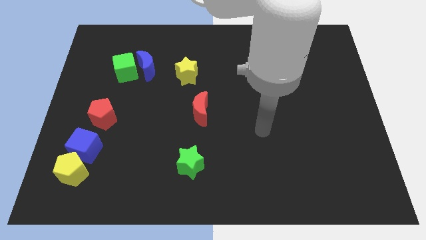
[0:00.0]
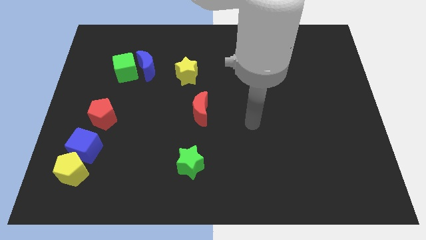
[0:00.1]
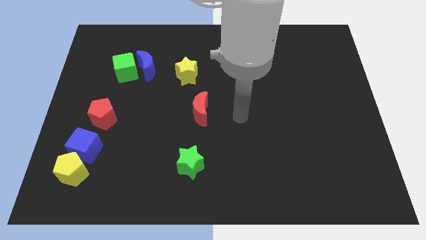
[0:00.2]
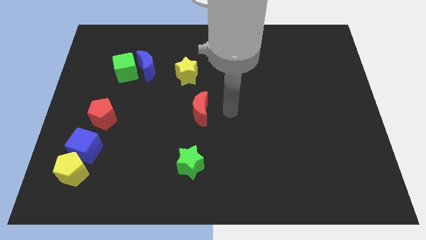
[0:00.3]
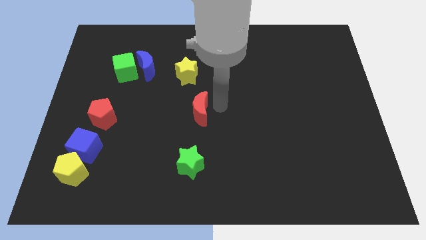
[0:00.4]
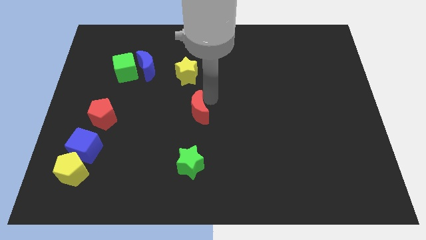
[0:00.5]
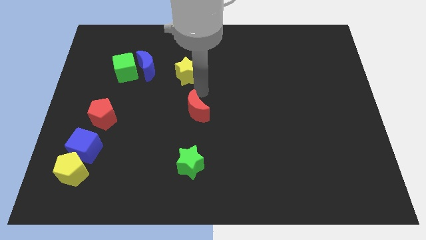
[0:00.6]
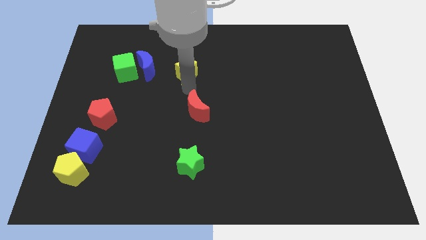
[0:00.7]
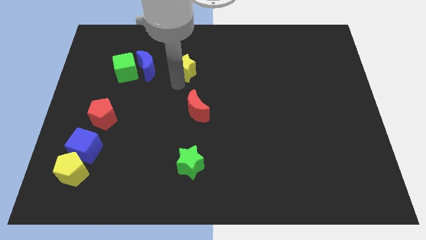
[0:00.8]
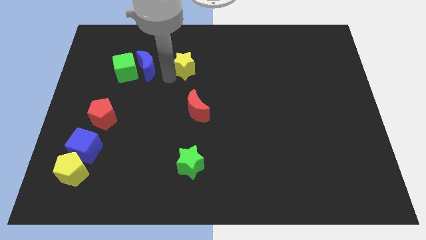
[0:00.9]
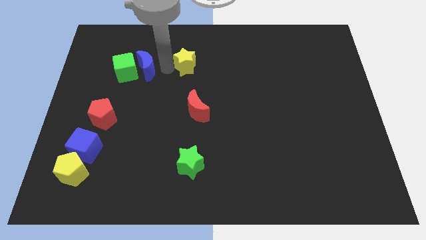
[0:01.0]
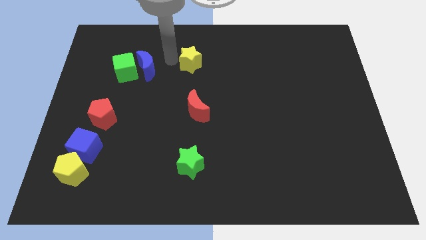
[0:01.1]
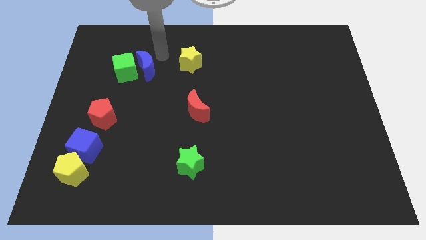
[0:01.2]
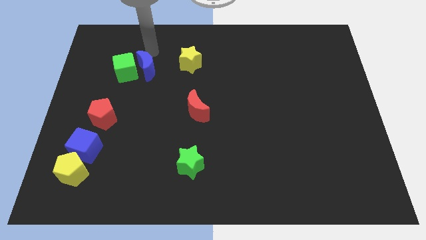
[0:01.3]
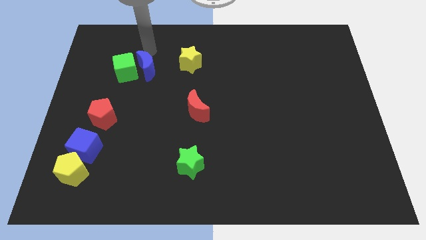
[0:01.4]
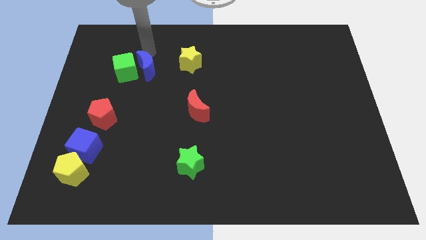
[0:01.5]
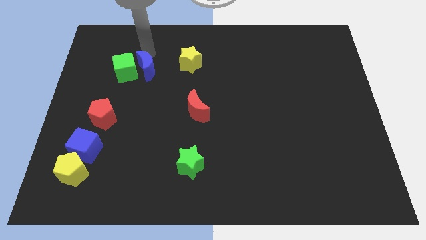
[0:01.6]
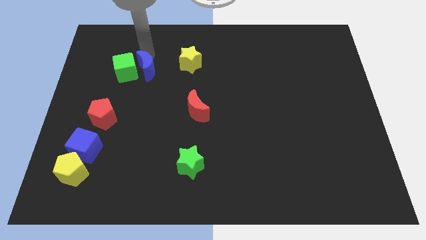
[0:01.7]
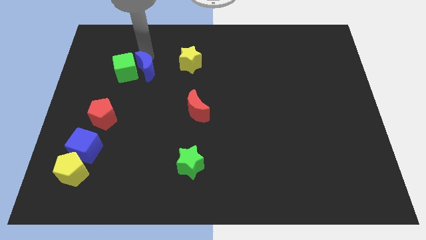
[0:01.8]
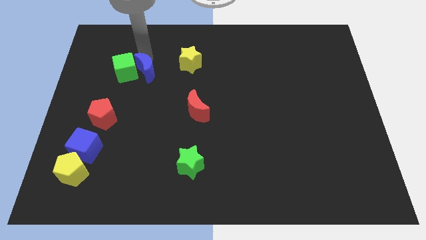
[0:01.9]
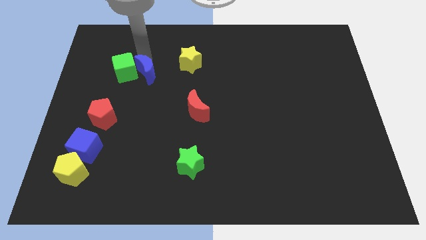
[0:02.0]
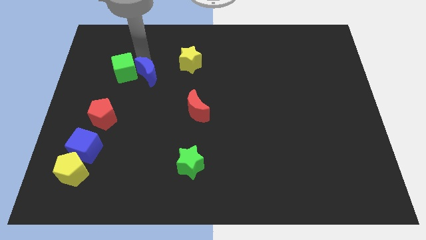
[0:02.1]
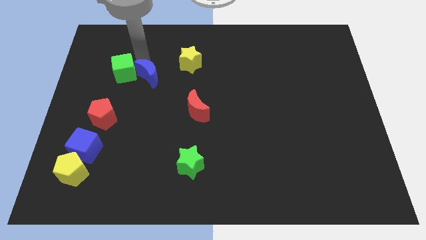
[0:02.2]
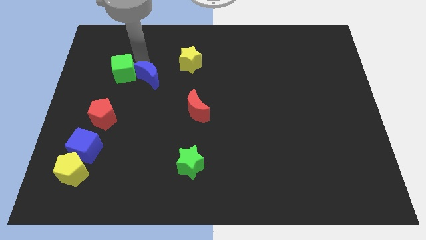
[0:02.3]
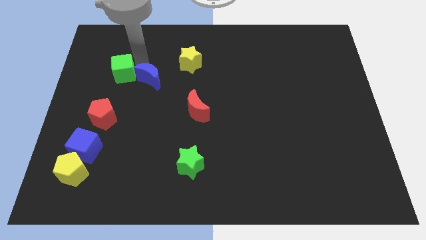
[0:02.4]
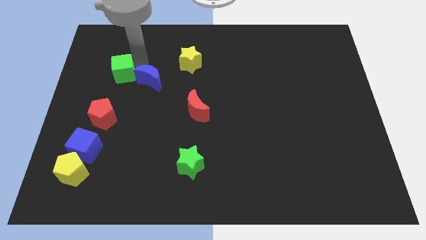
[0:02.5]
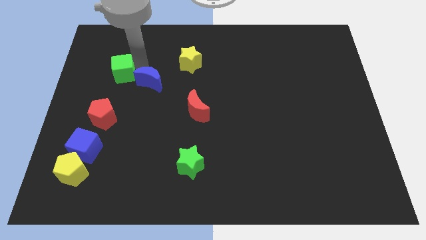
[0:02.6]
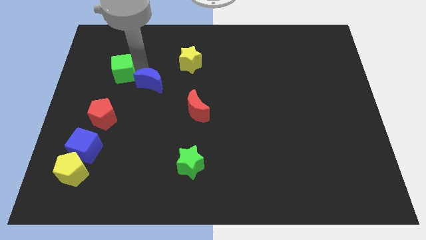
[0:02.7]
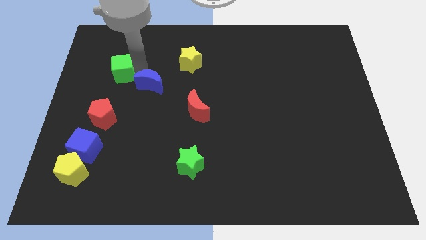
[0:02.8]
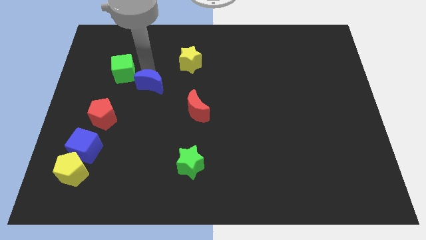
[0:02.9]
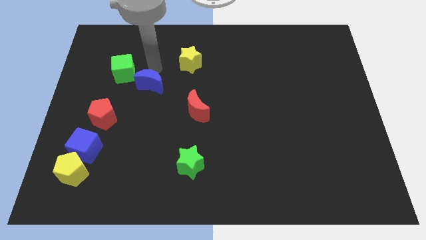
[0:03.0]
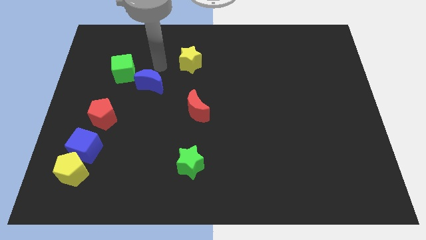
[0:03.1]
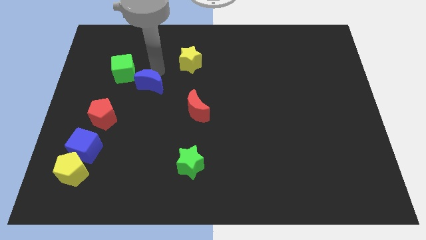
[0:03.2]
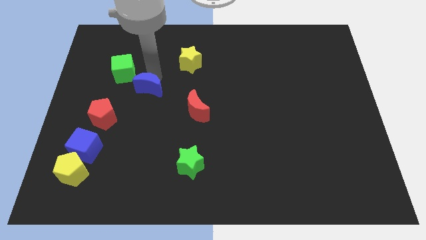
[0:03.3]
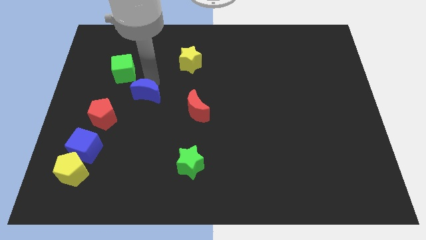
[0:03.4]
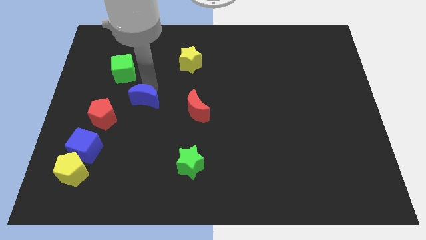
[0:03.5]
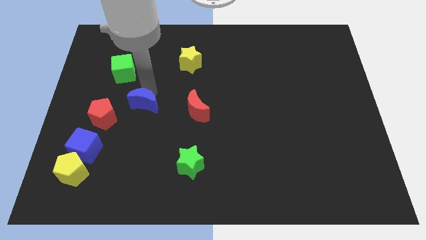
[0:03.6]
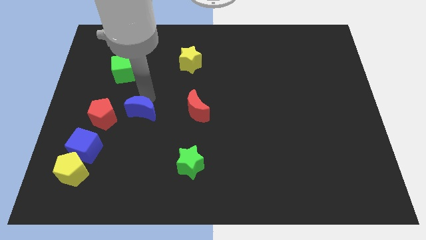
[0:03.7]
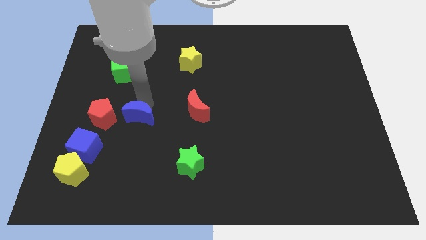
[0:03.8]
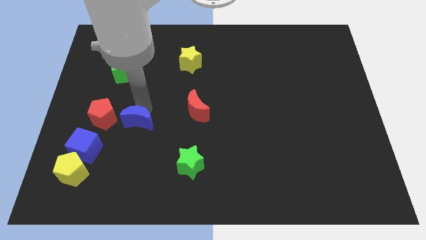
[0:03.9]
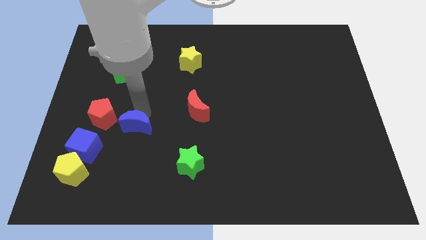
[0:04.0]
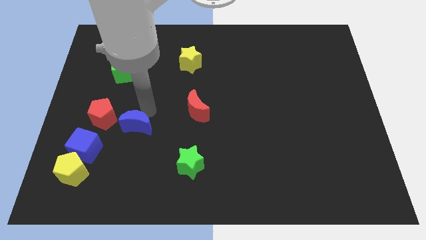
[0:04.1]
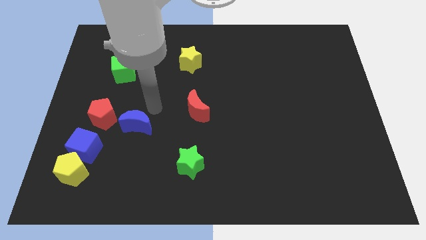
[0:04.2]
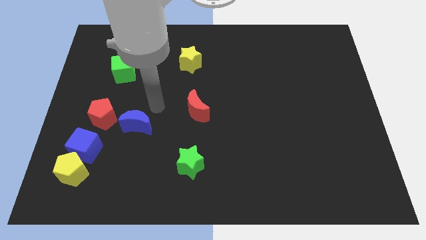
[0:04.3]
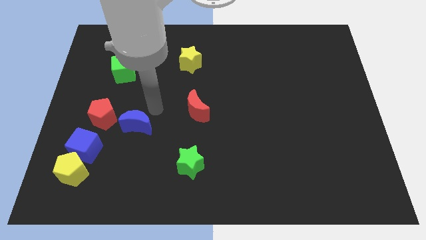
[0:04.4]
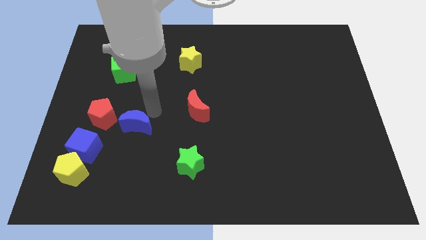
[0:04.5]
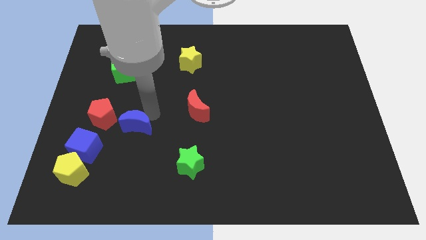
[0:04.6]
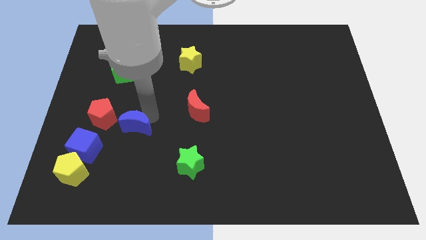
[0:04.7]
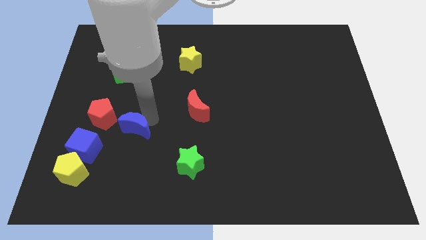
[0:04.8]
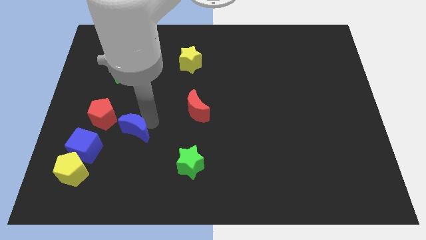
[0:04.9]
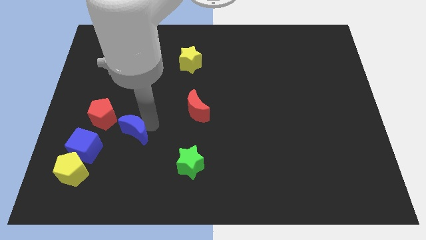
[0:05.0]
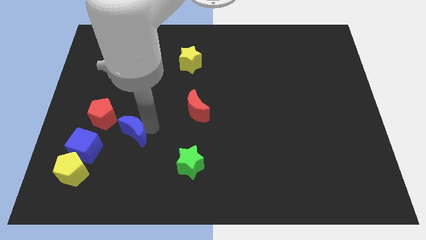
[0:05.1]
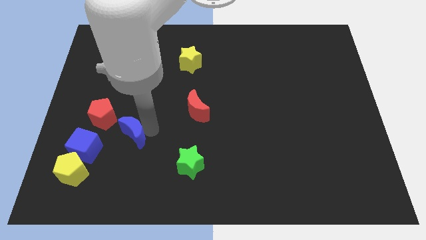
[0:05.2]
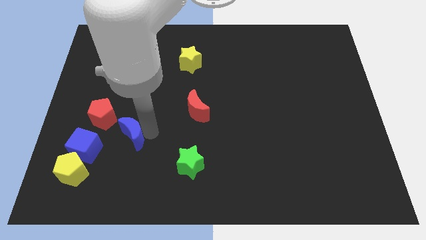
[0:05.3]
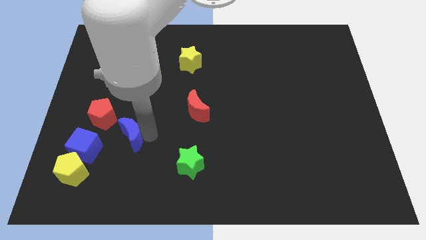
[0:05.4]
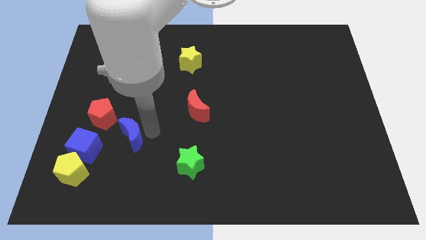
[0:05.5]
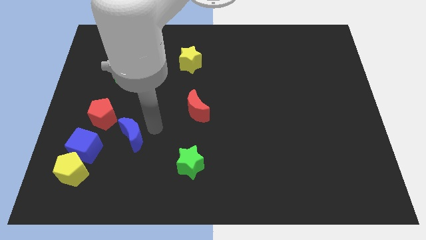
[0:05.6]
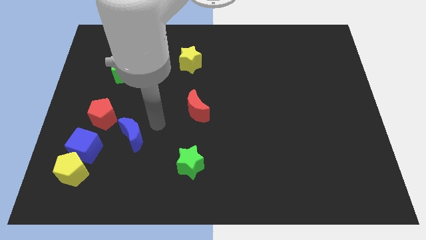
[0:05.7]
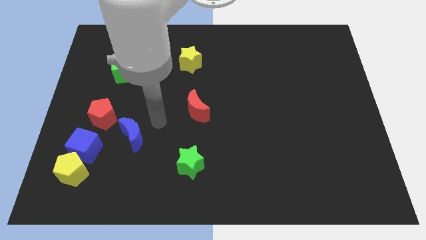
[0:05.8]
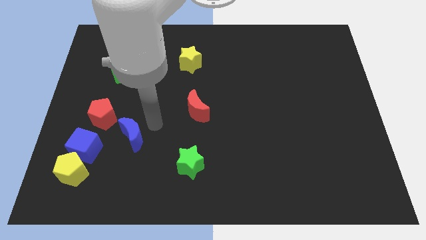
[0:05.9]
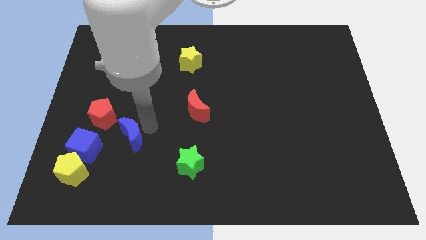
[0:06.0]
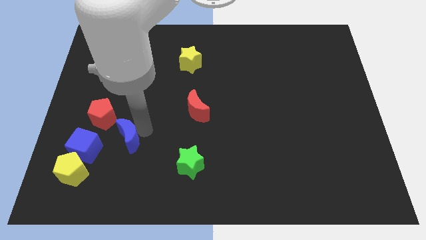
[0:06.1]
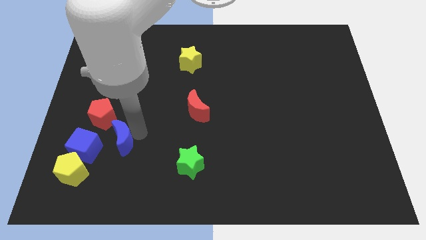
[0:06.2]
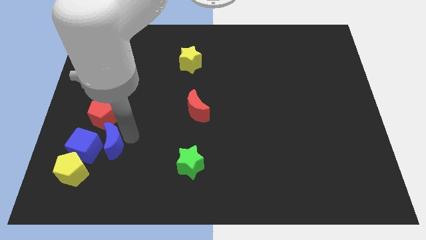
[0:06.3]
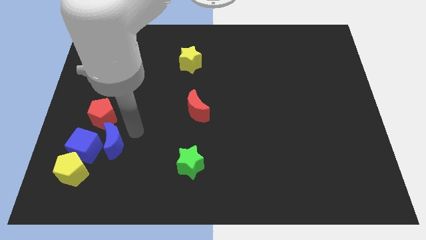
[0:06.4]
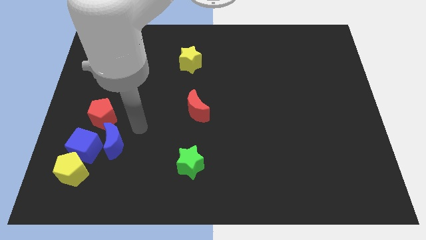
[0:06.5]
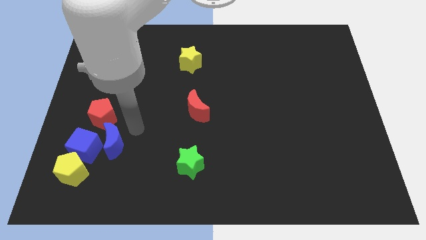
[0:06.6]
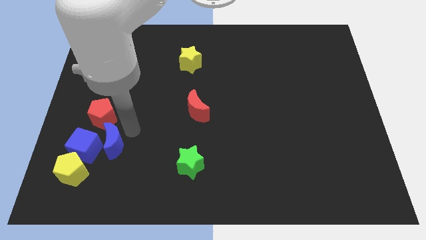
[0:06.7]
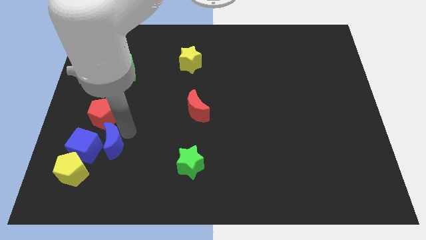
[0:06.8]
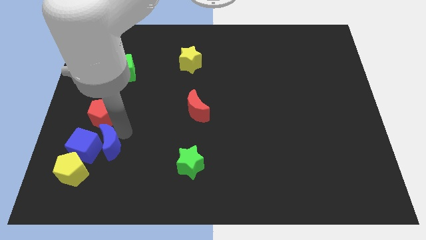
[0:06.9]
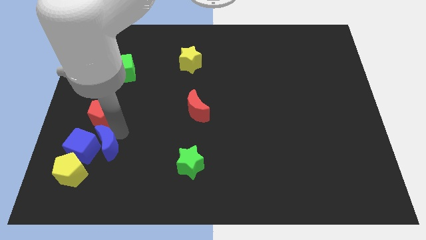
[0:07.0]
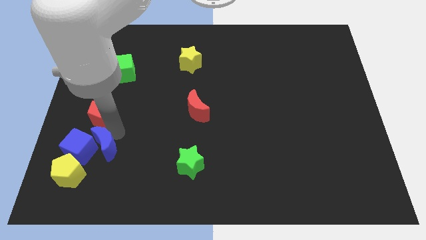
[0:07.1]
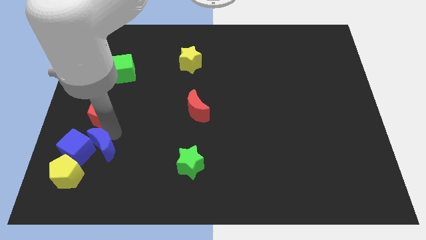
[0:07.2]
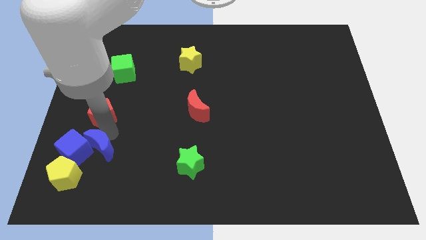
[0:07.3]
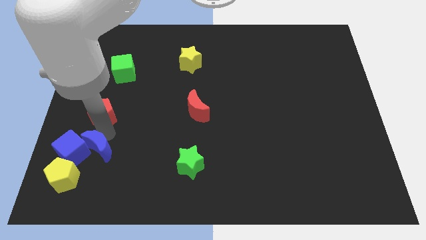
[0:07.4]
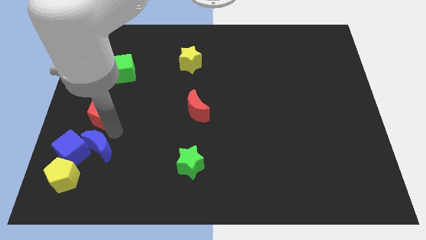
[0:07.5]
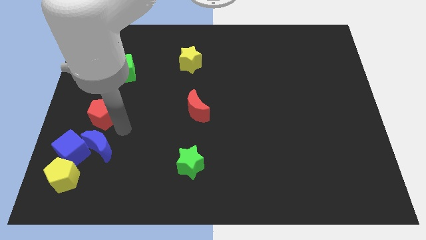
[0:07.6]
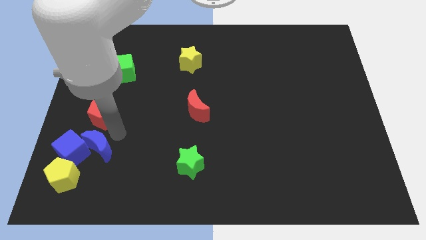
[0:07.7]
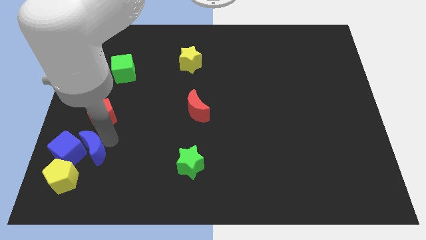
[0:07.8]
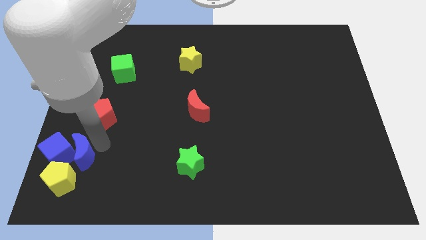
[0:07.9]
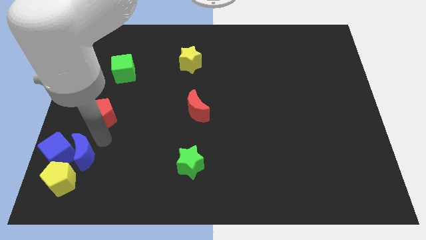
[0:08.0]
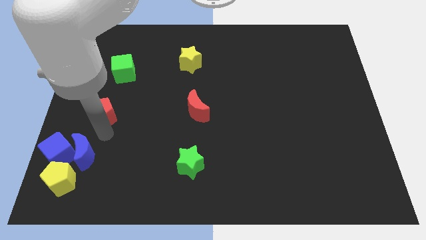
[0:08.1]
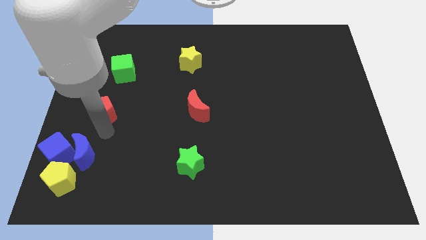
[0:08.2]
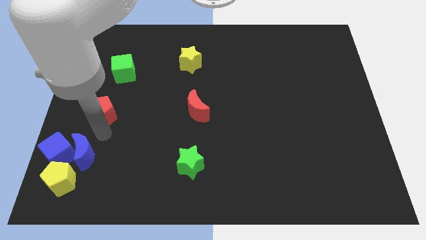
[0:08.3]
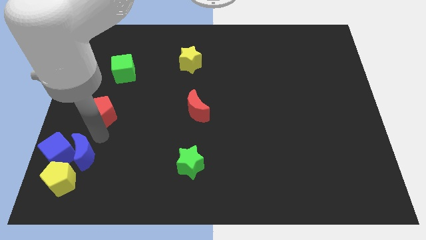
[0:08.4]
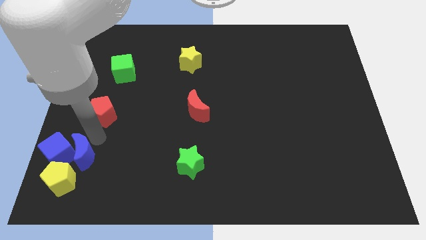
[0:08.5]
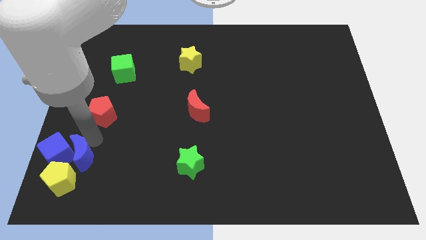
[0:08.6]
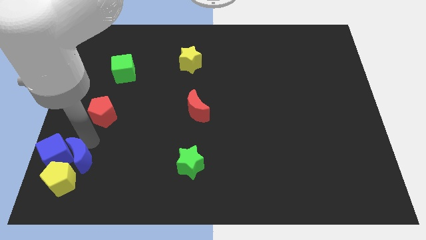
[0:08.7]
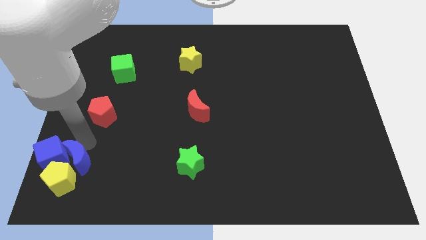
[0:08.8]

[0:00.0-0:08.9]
put the blue moon towards the yellow pentagon
